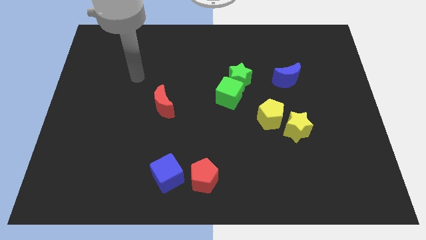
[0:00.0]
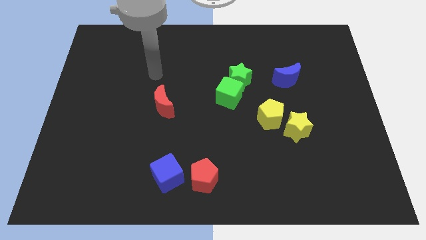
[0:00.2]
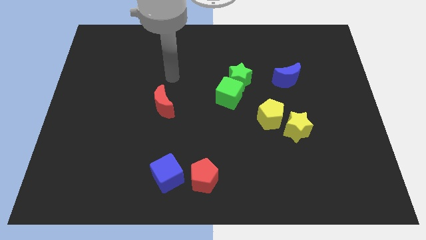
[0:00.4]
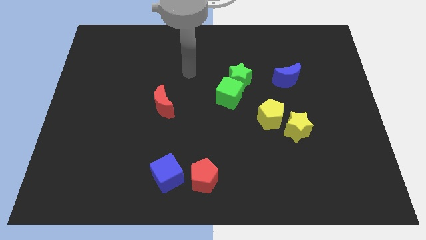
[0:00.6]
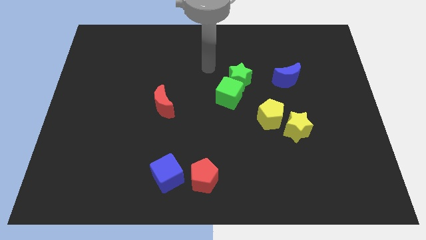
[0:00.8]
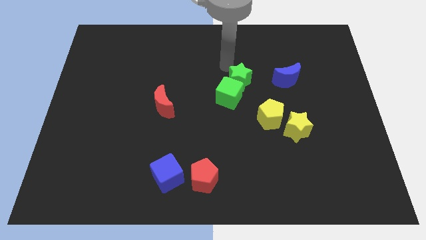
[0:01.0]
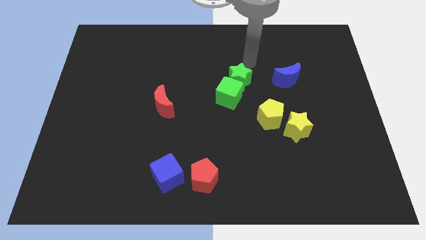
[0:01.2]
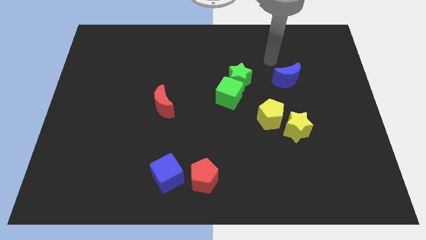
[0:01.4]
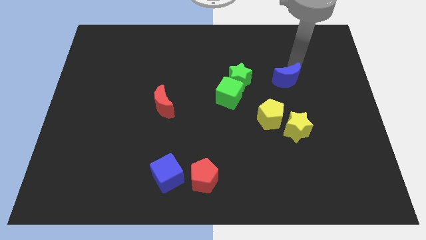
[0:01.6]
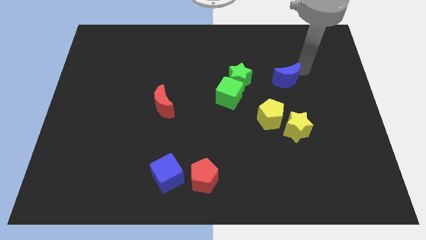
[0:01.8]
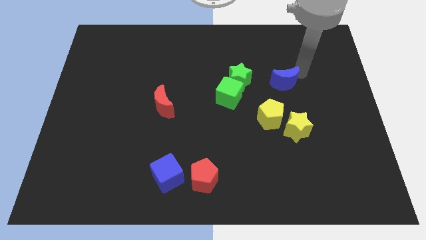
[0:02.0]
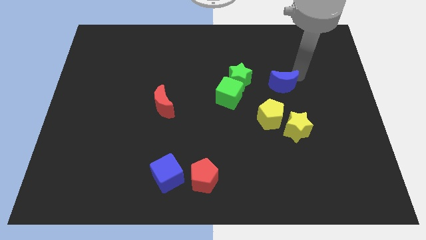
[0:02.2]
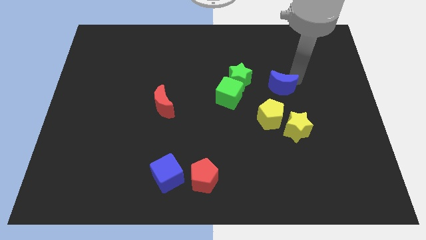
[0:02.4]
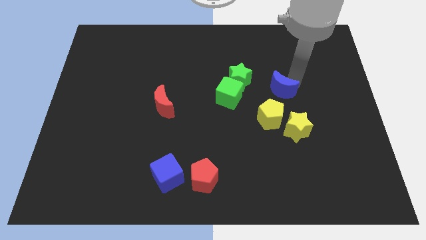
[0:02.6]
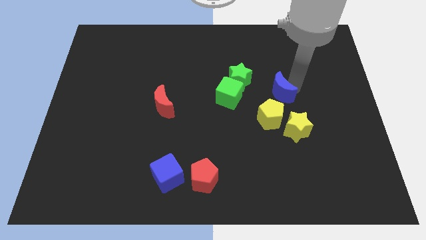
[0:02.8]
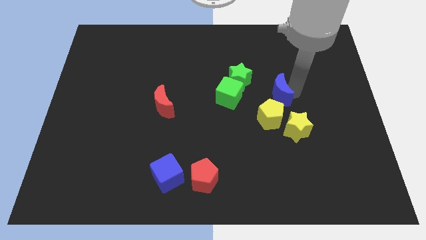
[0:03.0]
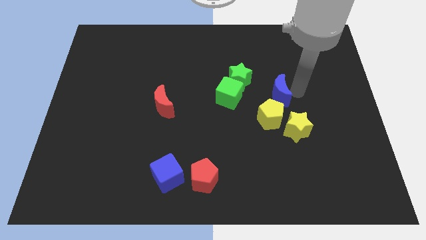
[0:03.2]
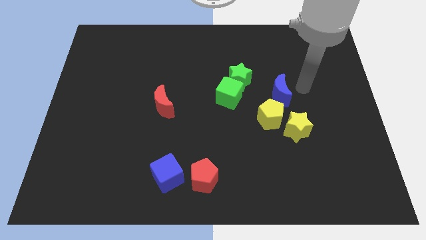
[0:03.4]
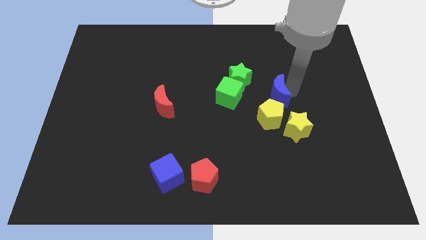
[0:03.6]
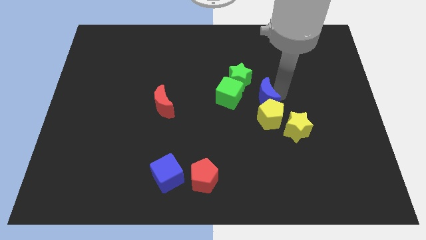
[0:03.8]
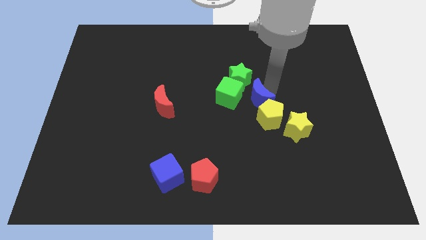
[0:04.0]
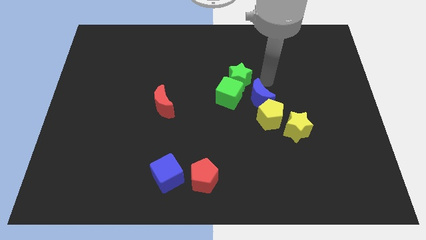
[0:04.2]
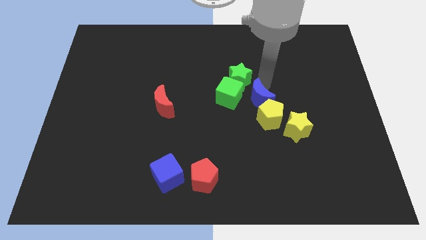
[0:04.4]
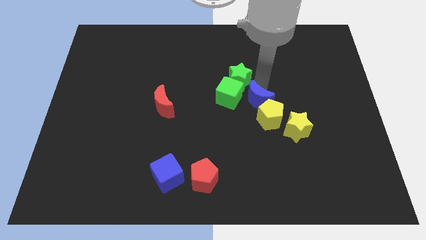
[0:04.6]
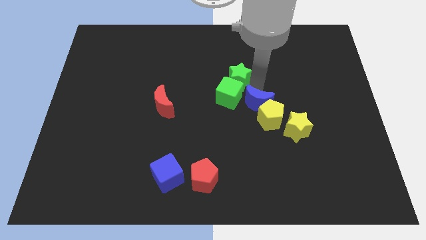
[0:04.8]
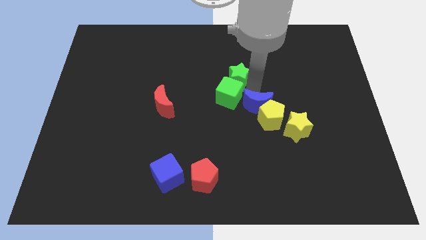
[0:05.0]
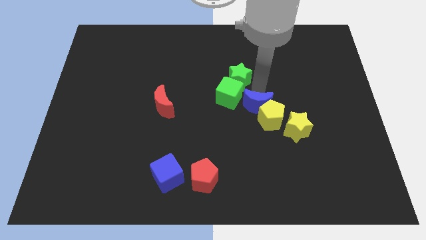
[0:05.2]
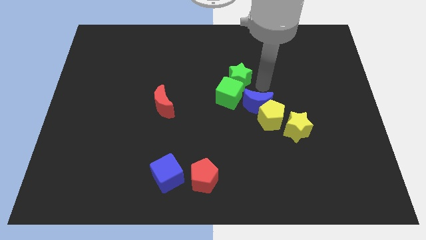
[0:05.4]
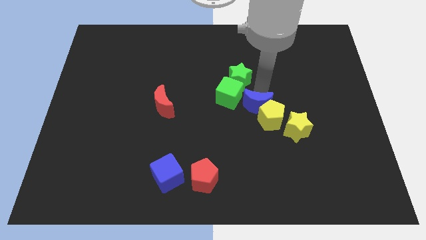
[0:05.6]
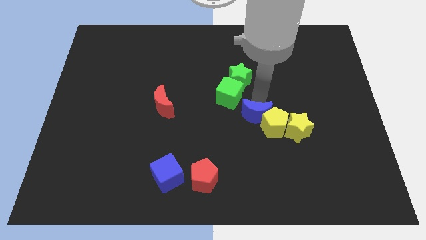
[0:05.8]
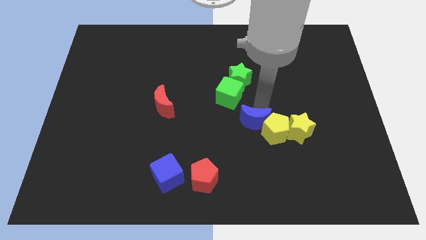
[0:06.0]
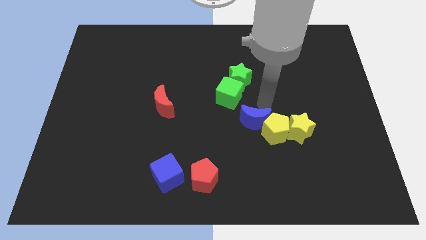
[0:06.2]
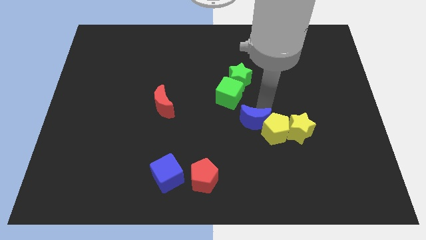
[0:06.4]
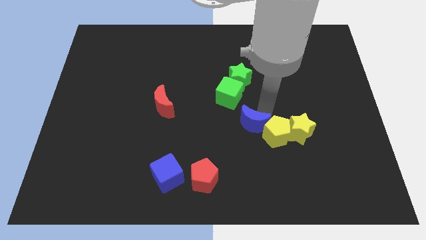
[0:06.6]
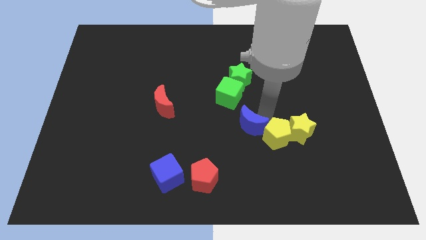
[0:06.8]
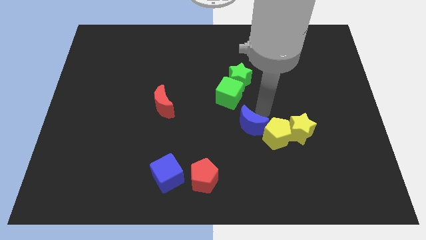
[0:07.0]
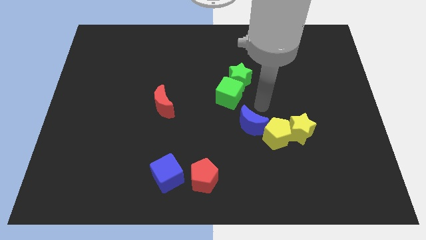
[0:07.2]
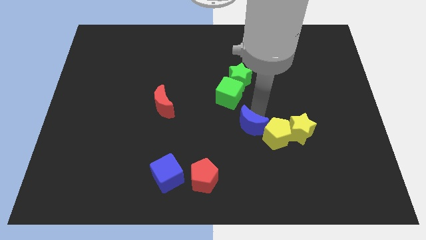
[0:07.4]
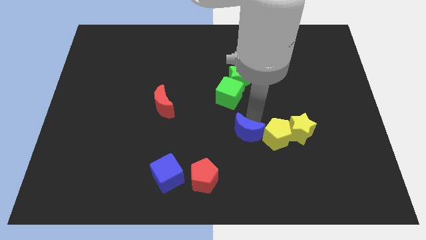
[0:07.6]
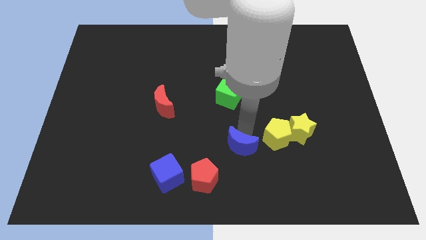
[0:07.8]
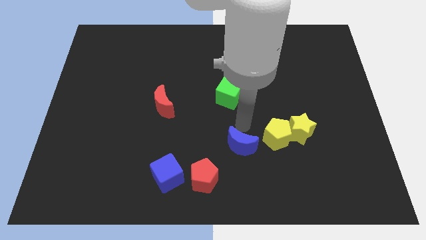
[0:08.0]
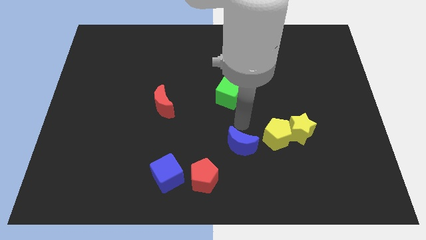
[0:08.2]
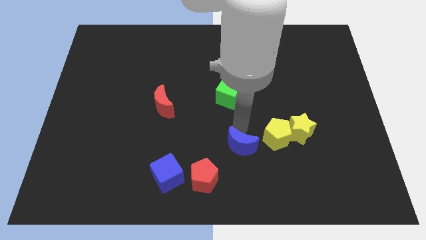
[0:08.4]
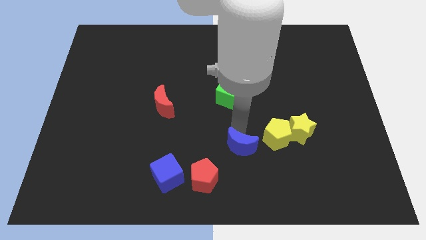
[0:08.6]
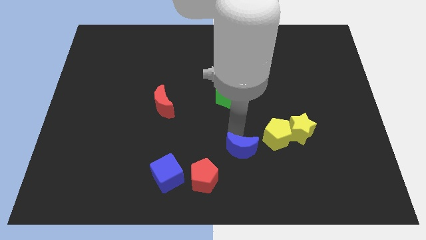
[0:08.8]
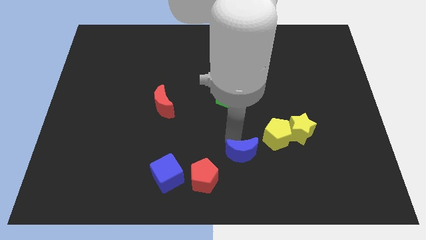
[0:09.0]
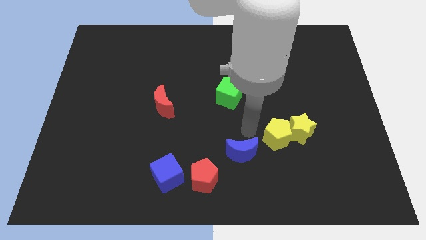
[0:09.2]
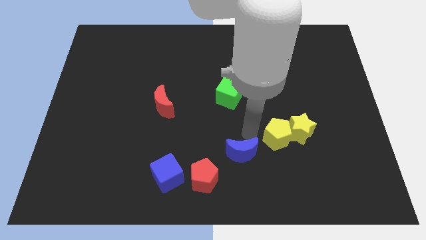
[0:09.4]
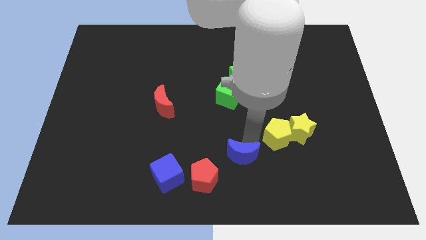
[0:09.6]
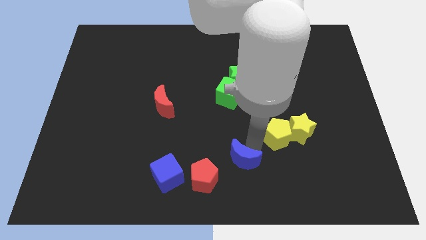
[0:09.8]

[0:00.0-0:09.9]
slide the blue moon to the bottom

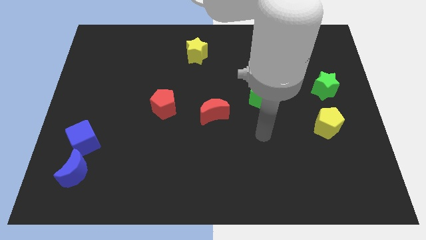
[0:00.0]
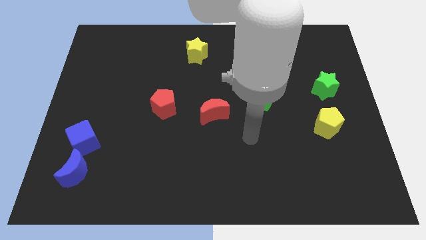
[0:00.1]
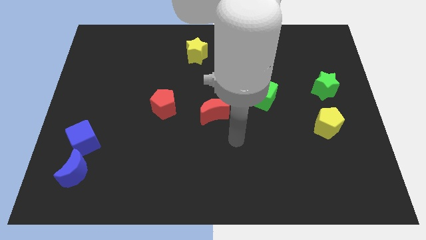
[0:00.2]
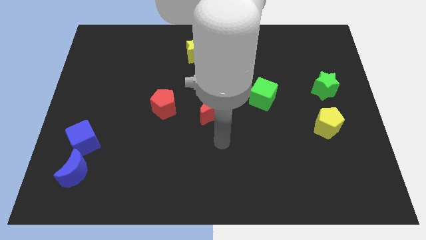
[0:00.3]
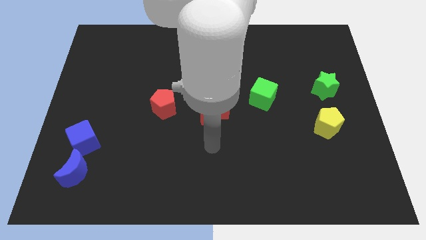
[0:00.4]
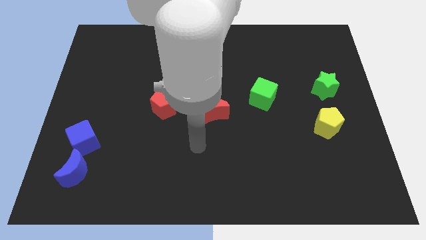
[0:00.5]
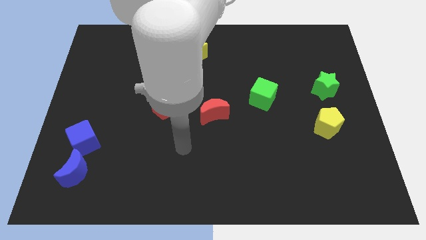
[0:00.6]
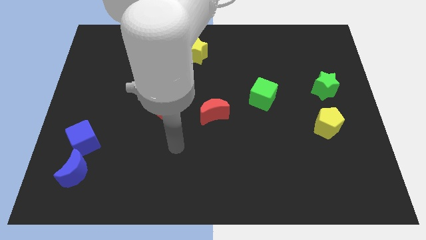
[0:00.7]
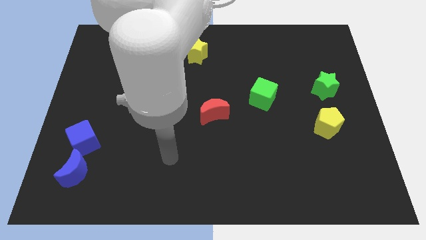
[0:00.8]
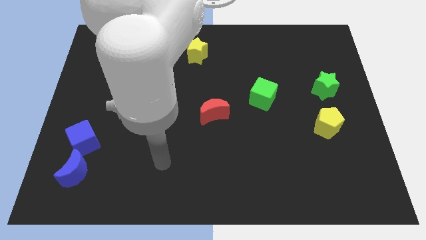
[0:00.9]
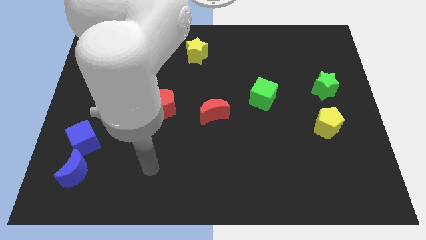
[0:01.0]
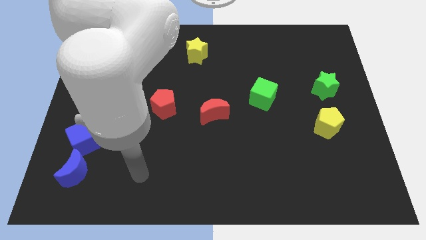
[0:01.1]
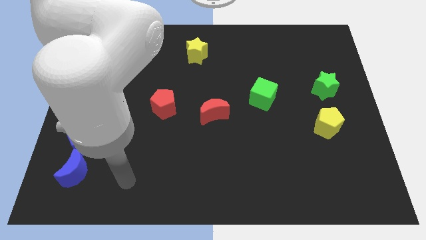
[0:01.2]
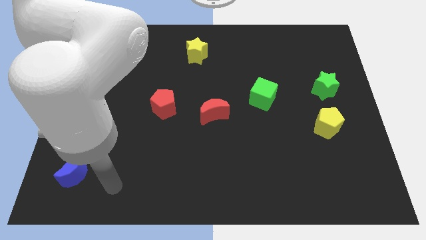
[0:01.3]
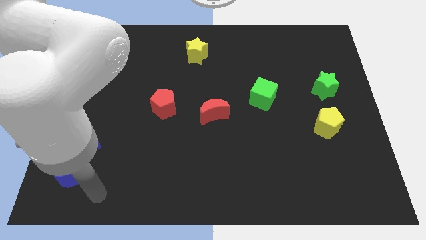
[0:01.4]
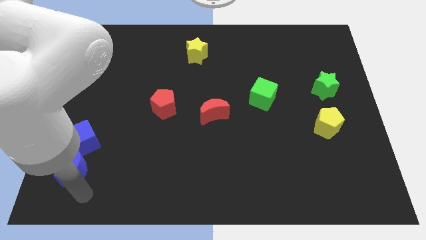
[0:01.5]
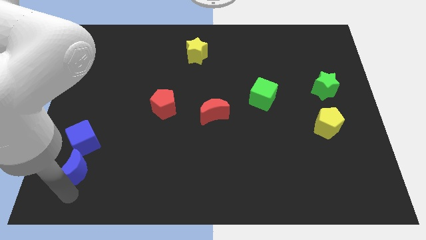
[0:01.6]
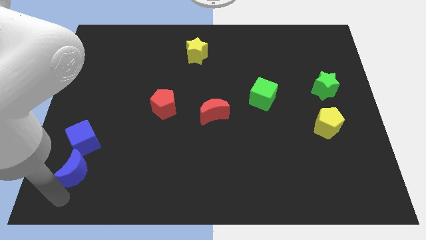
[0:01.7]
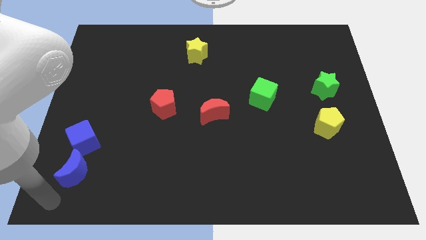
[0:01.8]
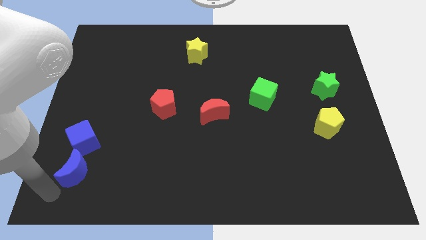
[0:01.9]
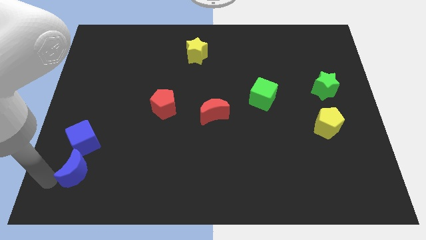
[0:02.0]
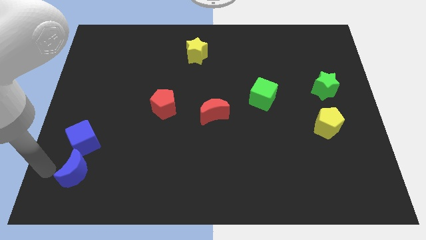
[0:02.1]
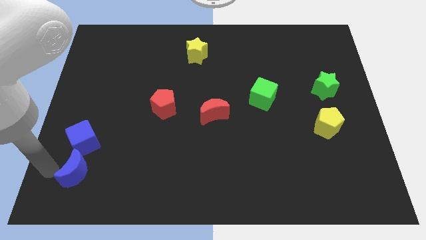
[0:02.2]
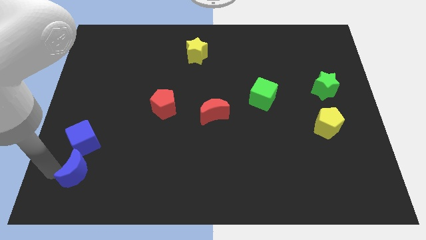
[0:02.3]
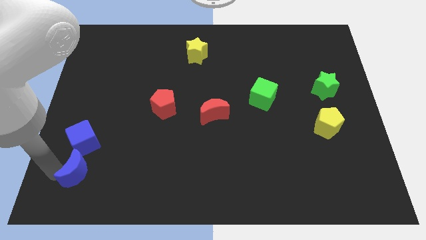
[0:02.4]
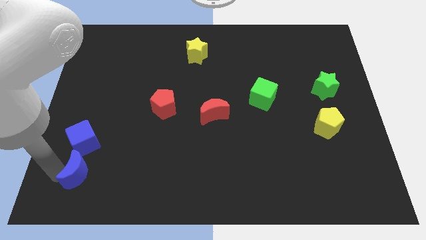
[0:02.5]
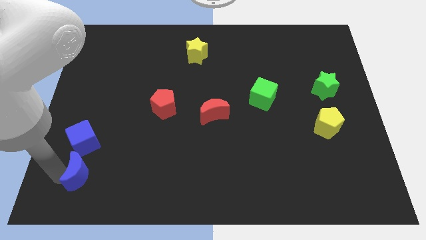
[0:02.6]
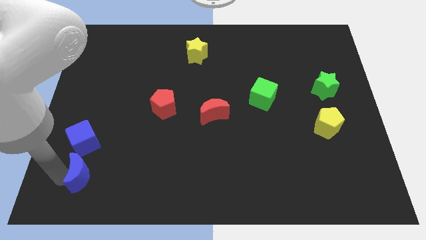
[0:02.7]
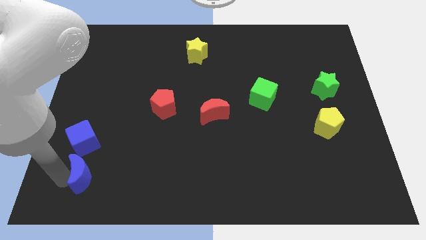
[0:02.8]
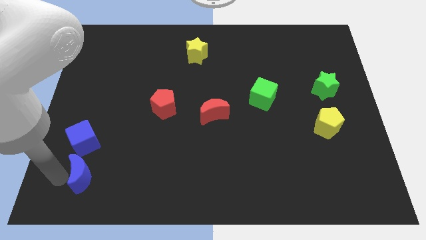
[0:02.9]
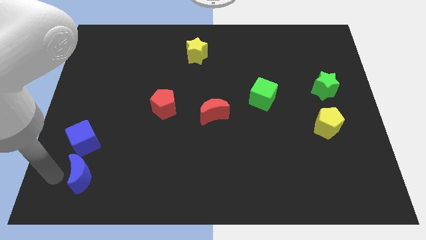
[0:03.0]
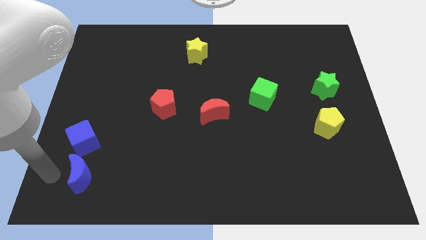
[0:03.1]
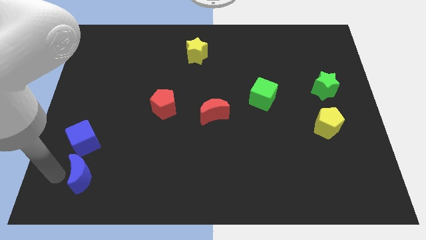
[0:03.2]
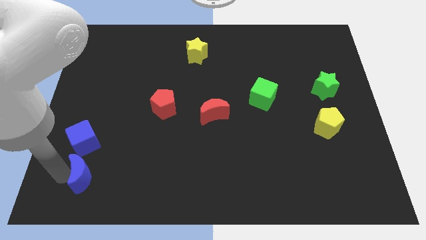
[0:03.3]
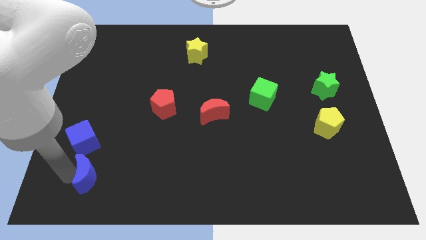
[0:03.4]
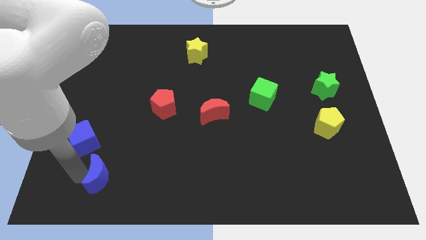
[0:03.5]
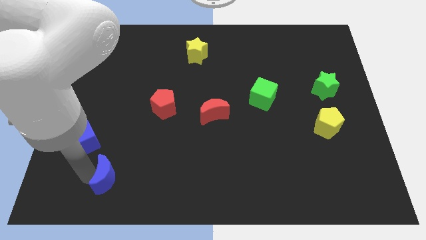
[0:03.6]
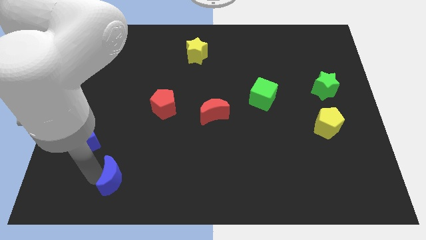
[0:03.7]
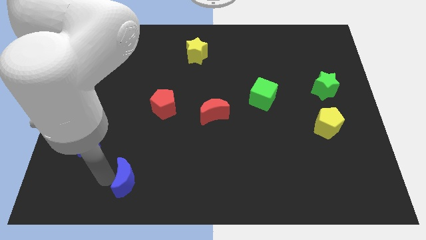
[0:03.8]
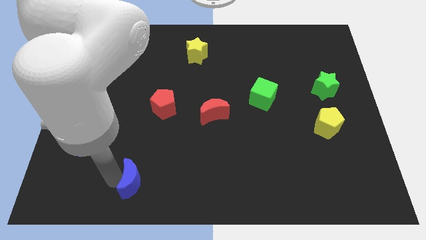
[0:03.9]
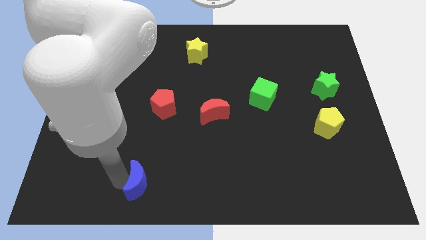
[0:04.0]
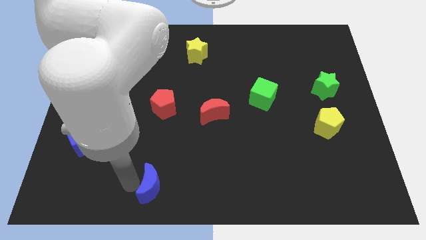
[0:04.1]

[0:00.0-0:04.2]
push the blue moon to the bottom side
